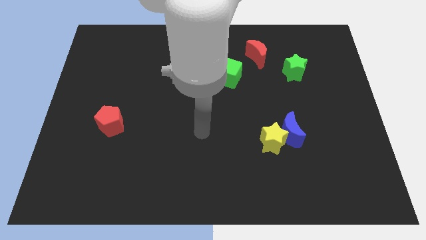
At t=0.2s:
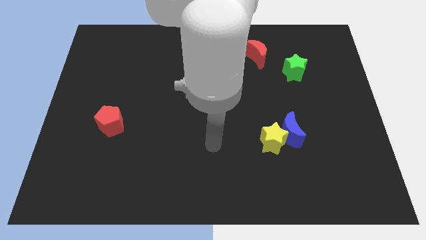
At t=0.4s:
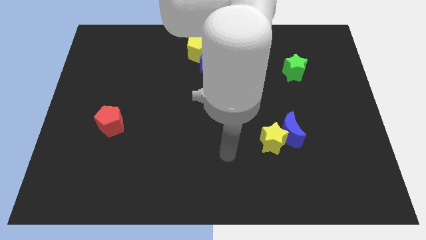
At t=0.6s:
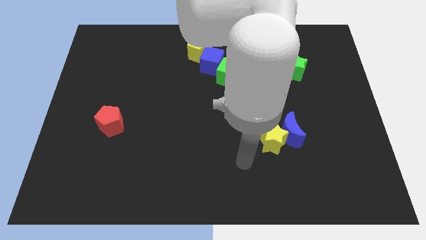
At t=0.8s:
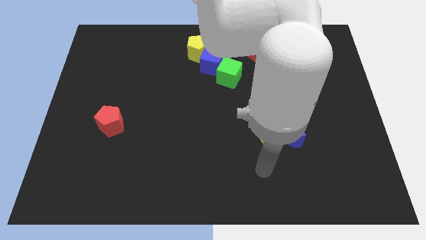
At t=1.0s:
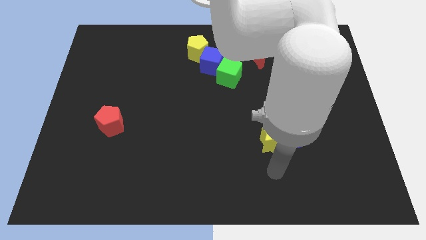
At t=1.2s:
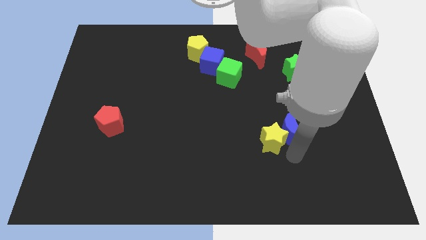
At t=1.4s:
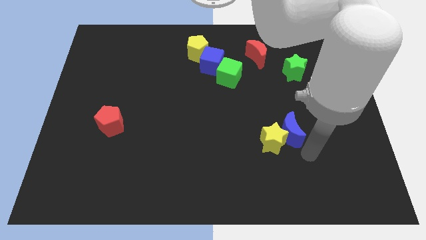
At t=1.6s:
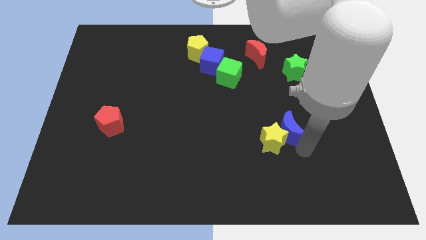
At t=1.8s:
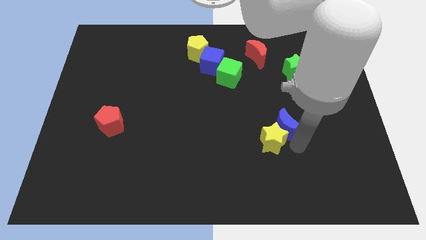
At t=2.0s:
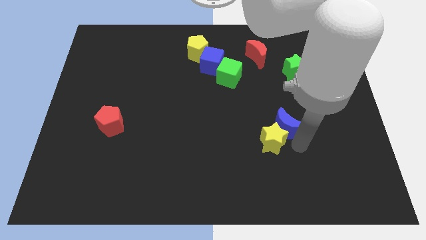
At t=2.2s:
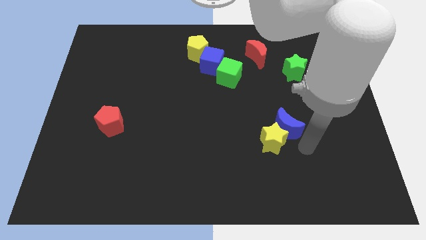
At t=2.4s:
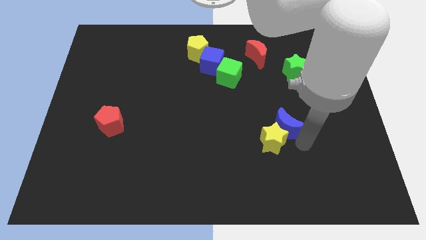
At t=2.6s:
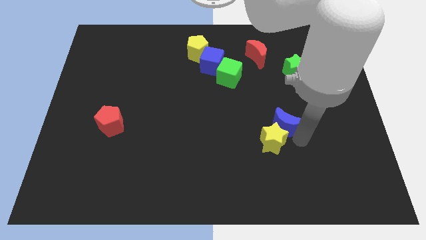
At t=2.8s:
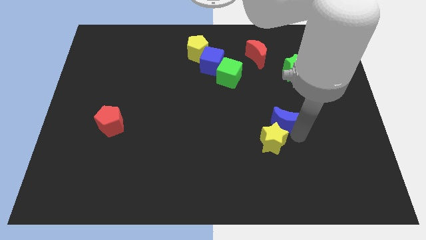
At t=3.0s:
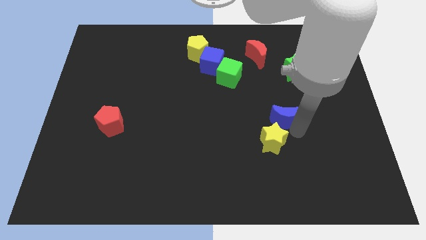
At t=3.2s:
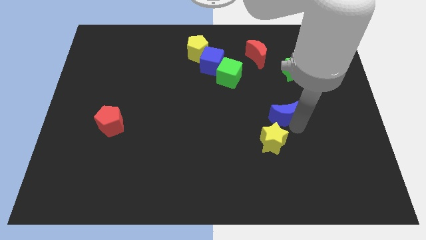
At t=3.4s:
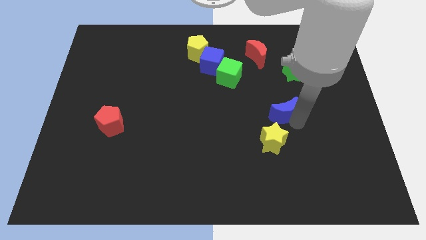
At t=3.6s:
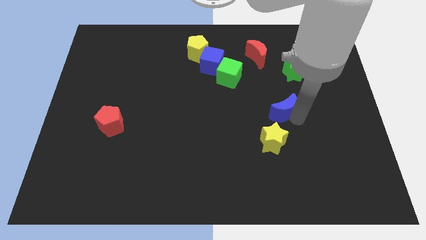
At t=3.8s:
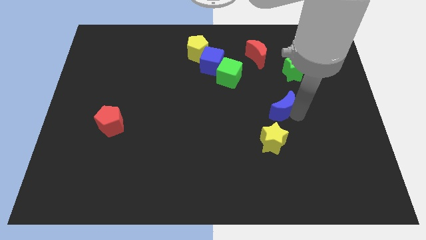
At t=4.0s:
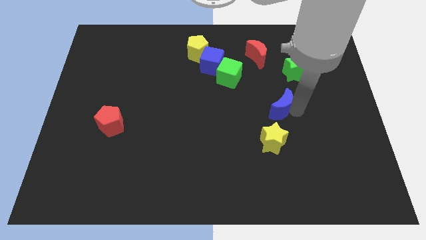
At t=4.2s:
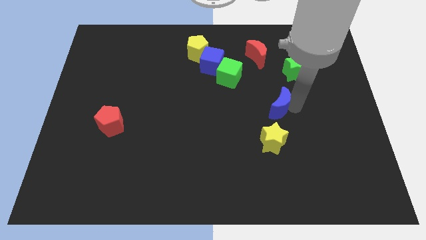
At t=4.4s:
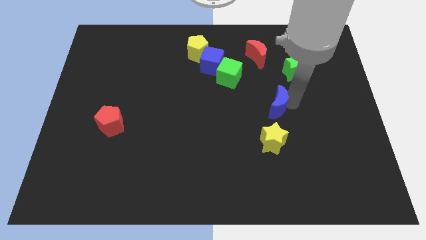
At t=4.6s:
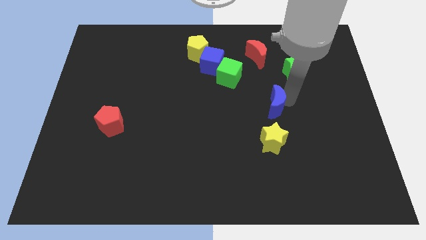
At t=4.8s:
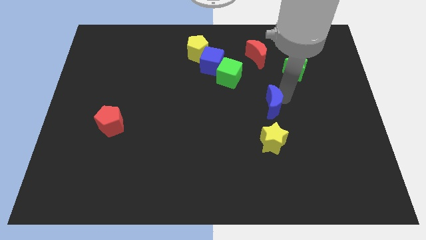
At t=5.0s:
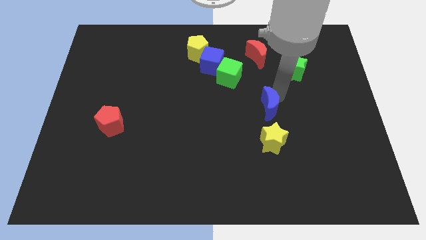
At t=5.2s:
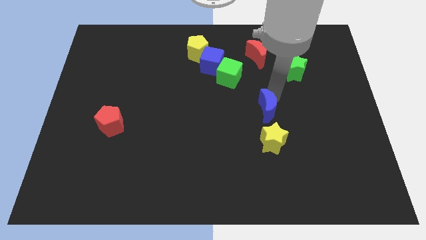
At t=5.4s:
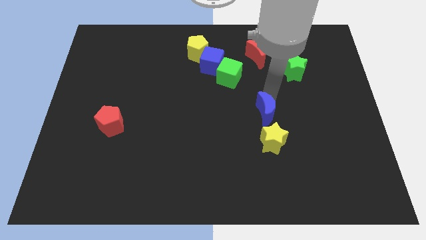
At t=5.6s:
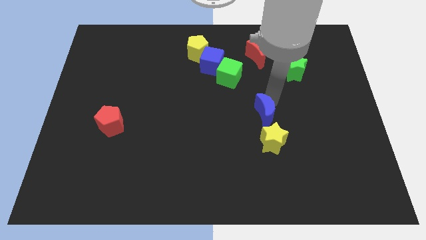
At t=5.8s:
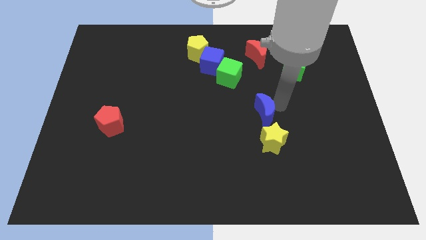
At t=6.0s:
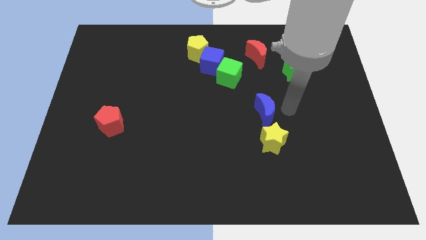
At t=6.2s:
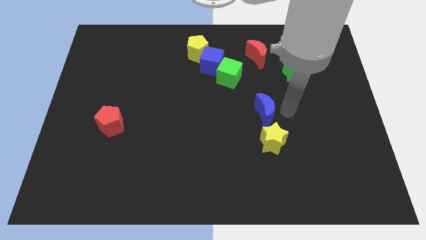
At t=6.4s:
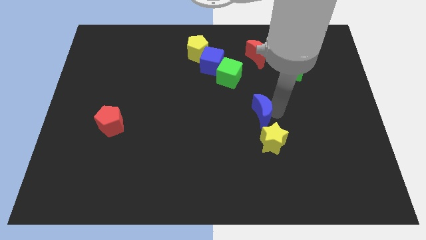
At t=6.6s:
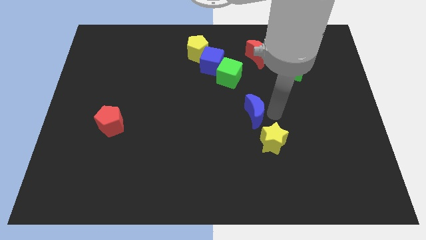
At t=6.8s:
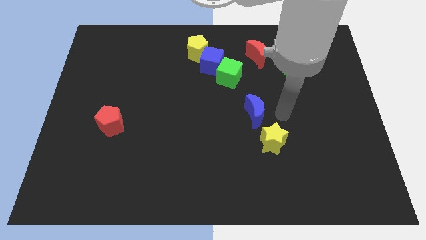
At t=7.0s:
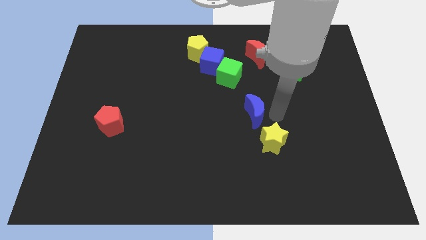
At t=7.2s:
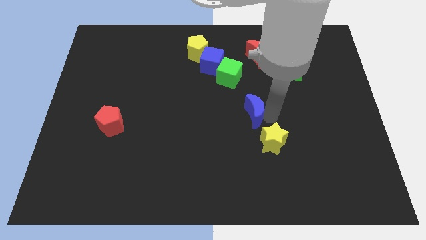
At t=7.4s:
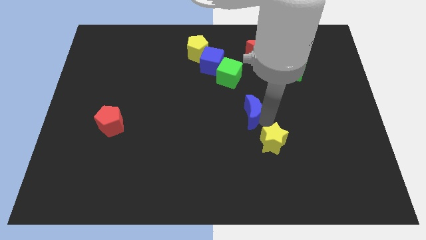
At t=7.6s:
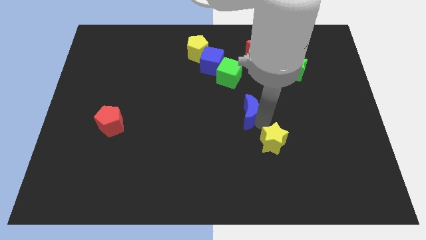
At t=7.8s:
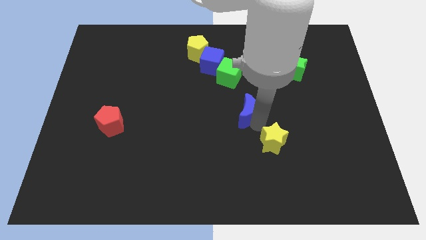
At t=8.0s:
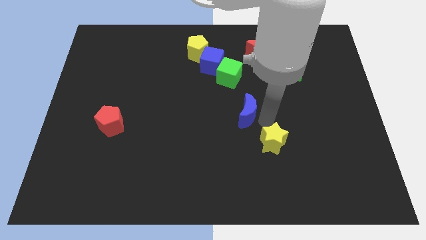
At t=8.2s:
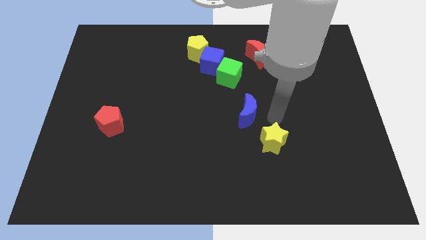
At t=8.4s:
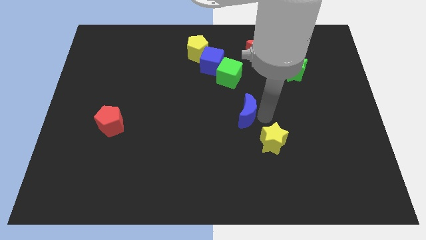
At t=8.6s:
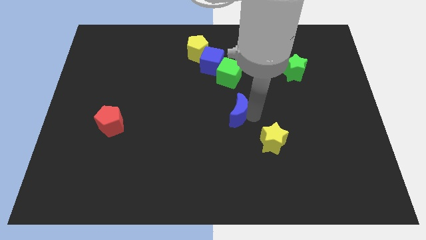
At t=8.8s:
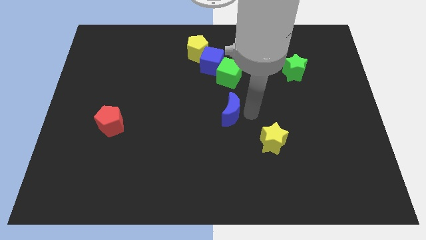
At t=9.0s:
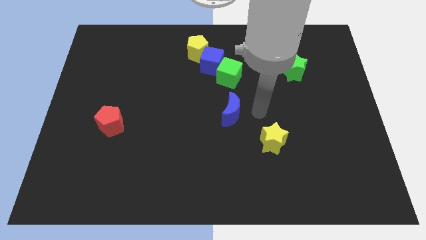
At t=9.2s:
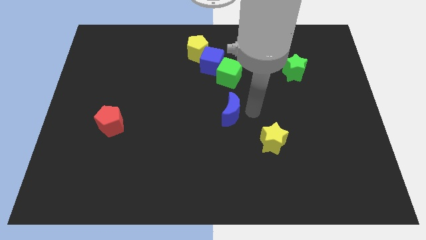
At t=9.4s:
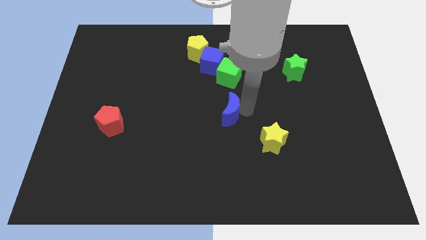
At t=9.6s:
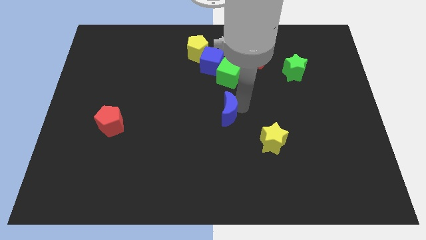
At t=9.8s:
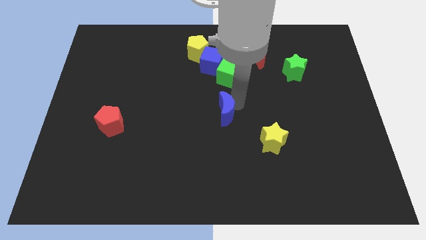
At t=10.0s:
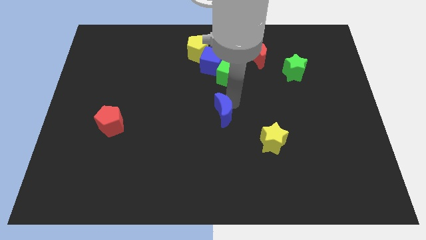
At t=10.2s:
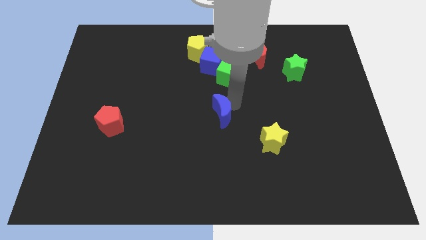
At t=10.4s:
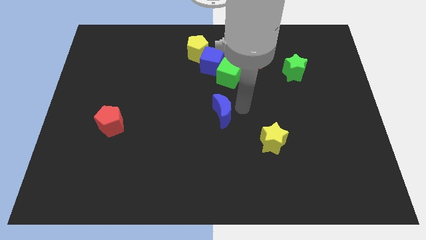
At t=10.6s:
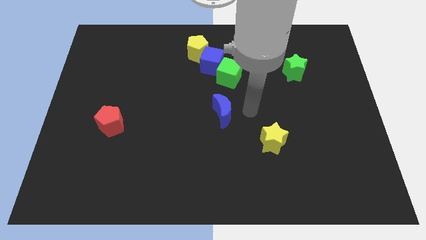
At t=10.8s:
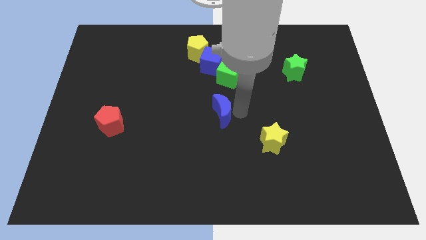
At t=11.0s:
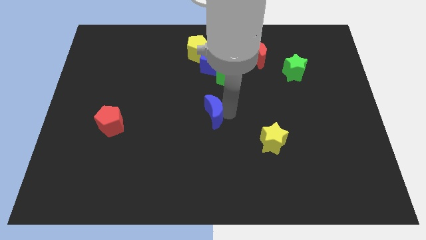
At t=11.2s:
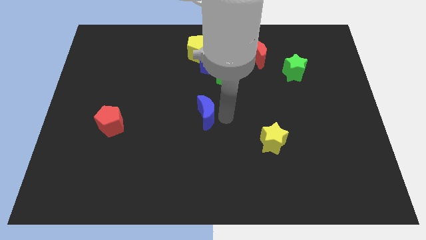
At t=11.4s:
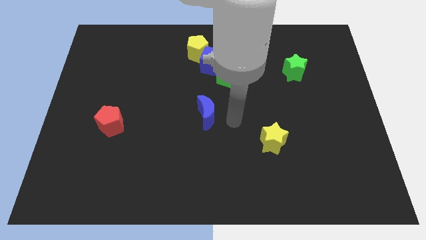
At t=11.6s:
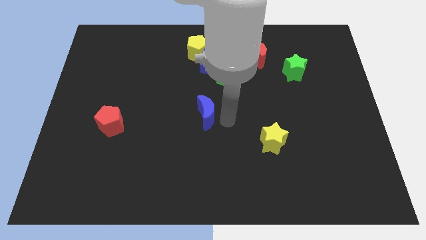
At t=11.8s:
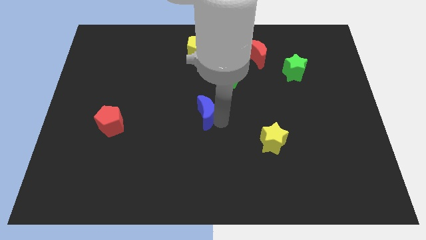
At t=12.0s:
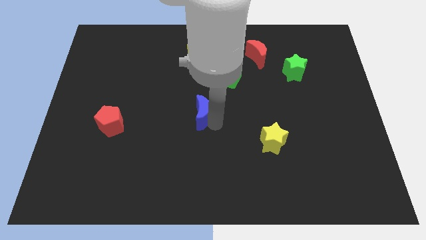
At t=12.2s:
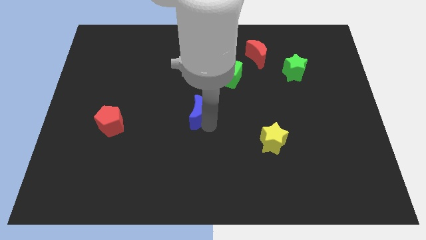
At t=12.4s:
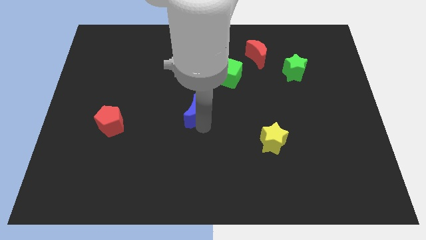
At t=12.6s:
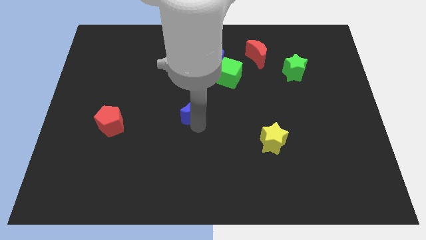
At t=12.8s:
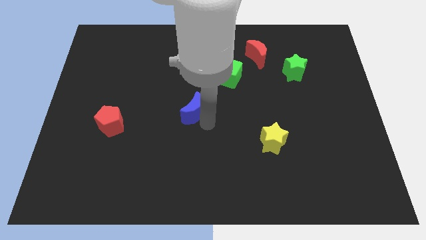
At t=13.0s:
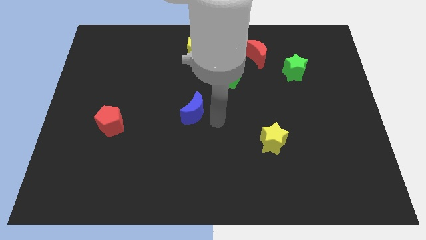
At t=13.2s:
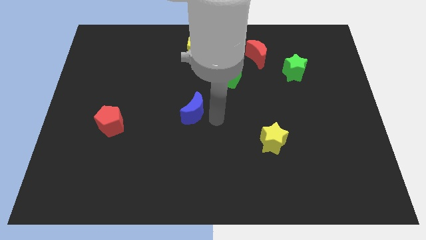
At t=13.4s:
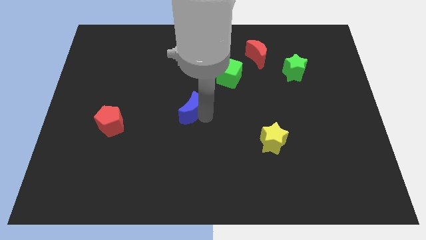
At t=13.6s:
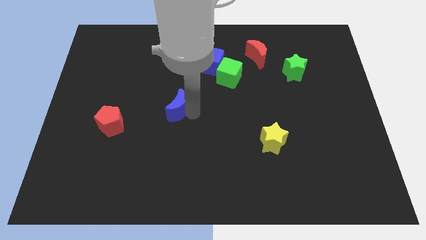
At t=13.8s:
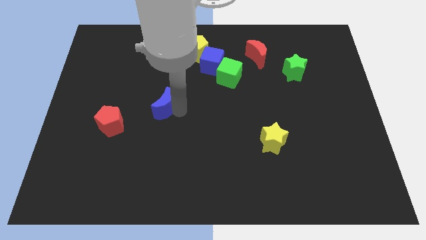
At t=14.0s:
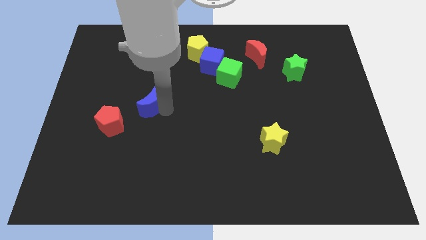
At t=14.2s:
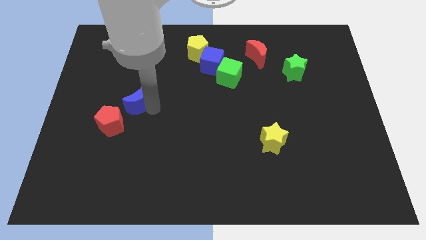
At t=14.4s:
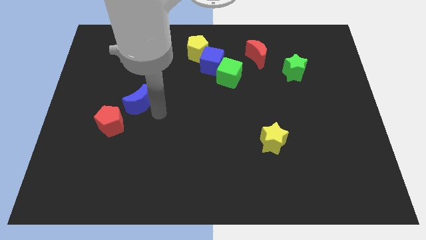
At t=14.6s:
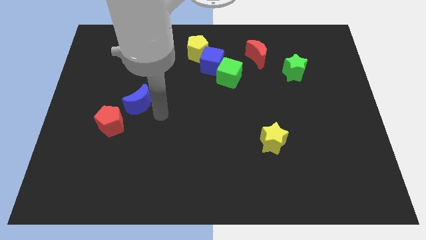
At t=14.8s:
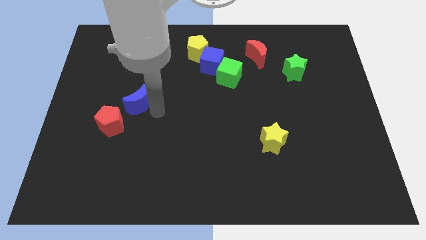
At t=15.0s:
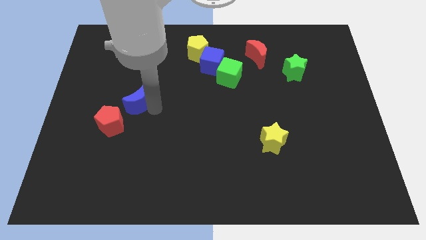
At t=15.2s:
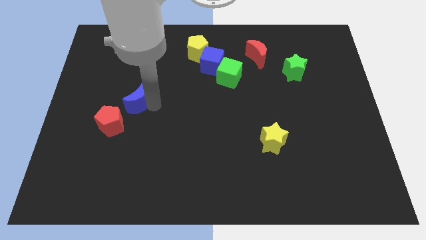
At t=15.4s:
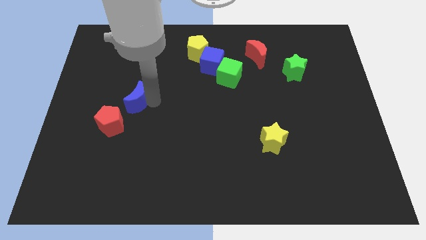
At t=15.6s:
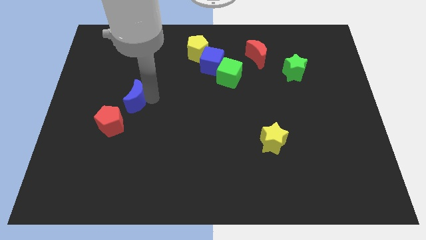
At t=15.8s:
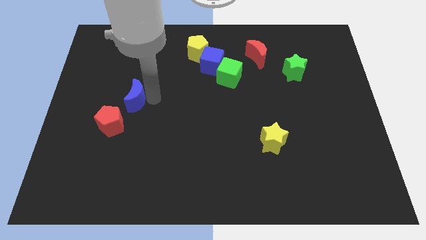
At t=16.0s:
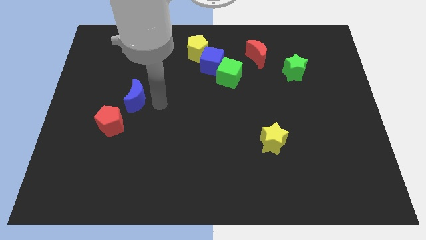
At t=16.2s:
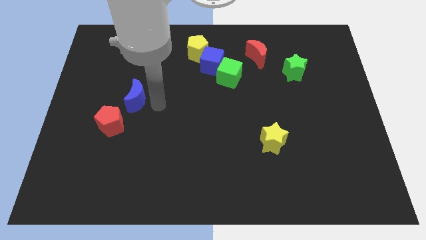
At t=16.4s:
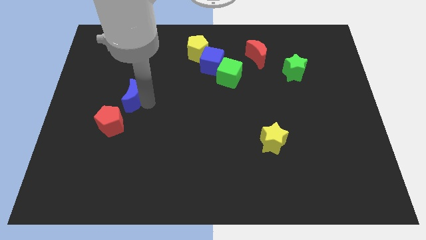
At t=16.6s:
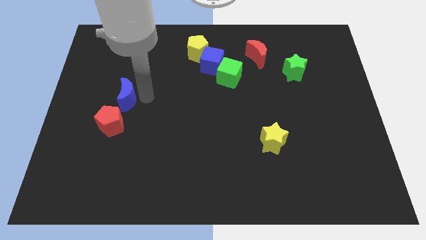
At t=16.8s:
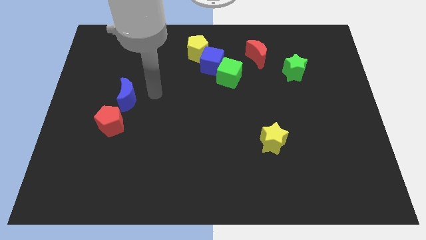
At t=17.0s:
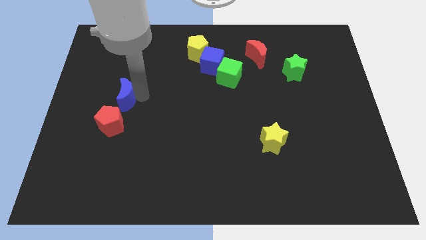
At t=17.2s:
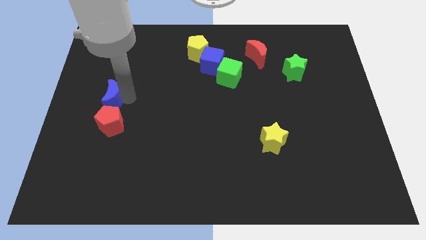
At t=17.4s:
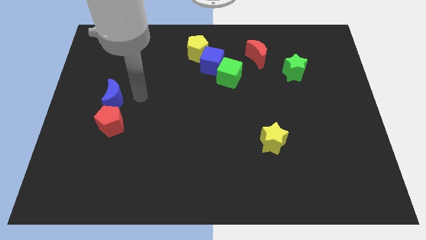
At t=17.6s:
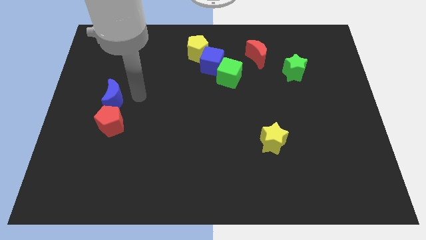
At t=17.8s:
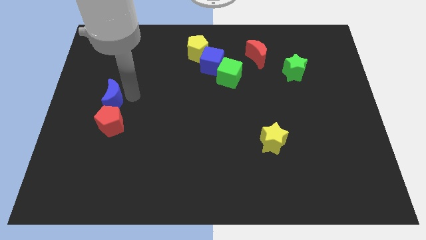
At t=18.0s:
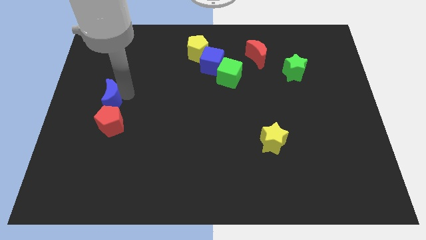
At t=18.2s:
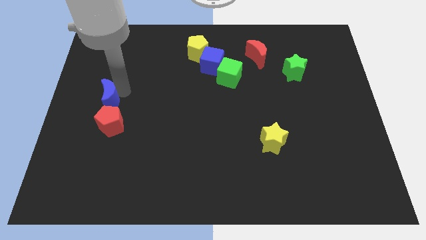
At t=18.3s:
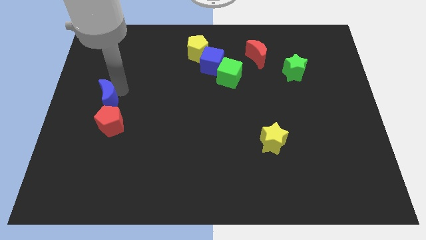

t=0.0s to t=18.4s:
move the blue moon to the left side
